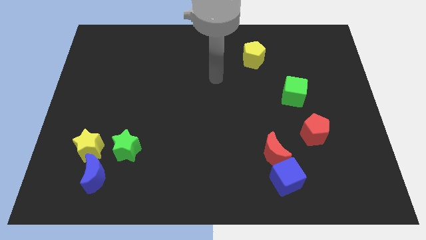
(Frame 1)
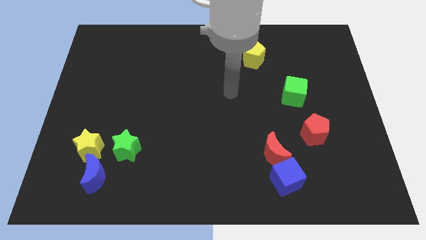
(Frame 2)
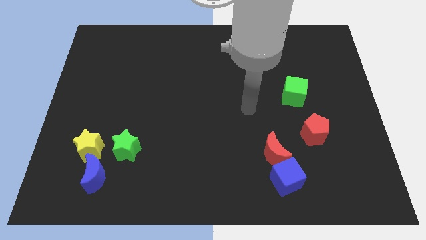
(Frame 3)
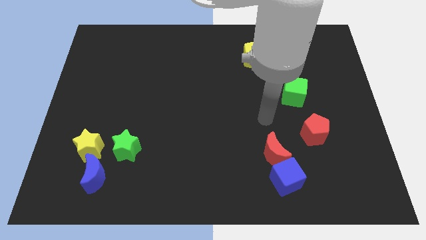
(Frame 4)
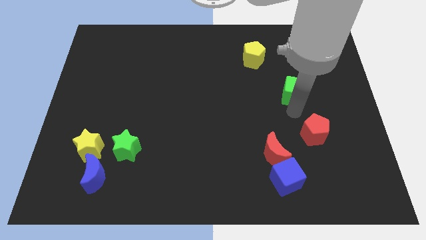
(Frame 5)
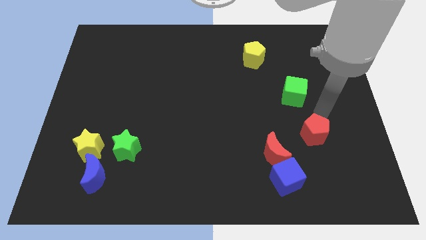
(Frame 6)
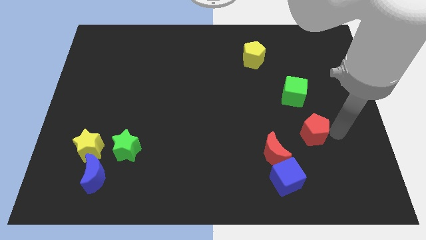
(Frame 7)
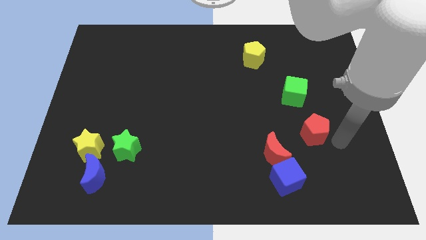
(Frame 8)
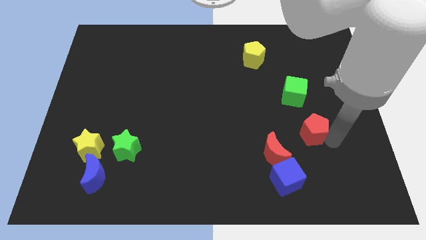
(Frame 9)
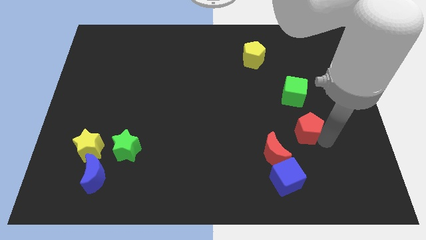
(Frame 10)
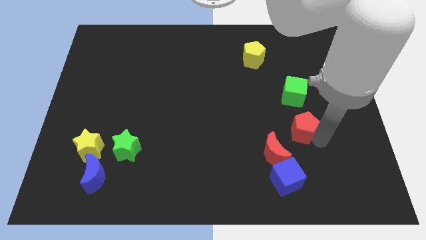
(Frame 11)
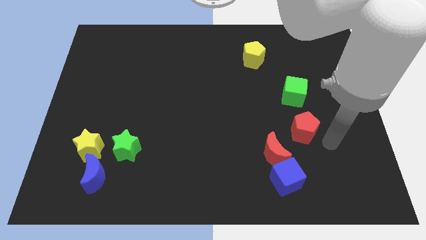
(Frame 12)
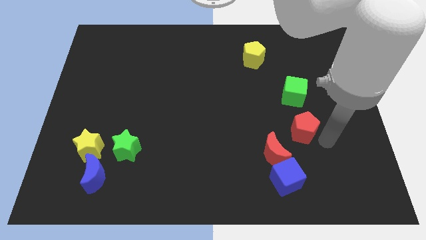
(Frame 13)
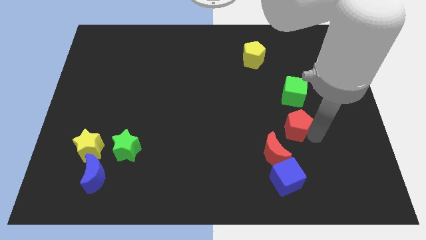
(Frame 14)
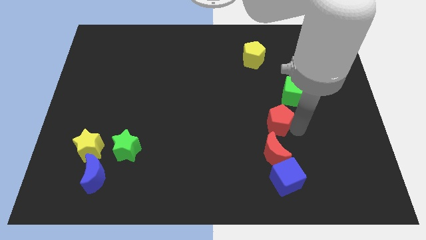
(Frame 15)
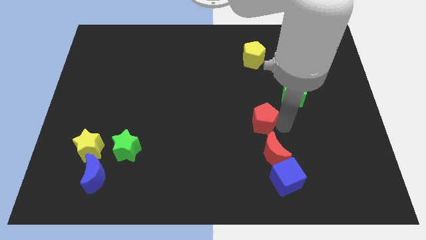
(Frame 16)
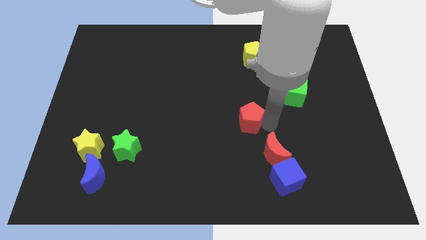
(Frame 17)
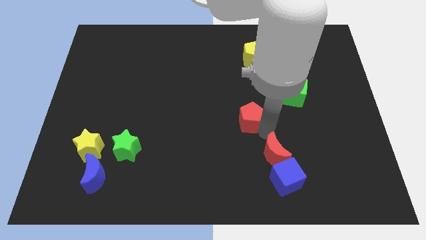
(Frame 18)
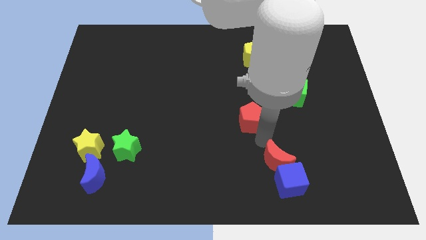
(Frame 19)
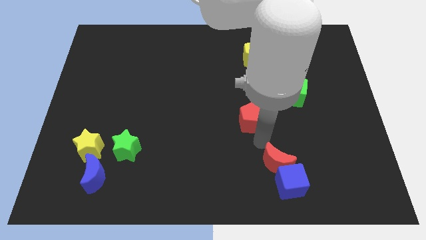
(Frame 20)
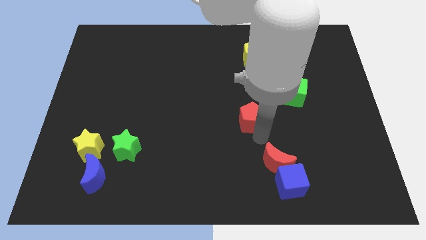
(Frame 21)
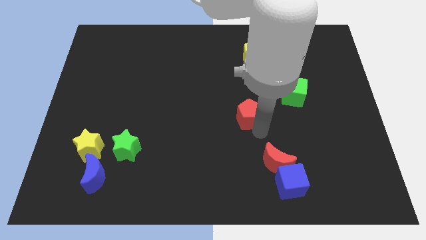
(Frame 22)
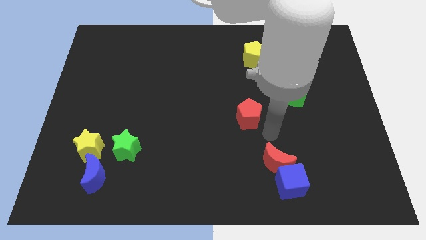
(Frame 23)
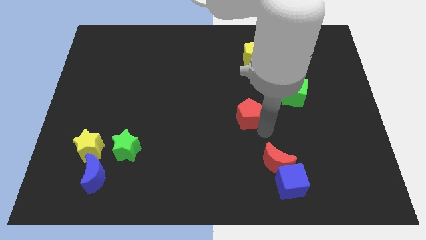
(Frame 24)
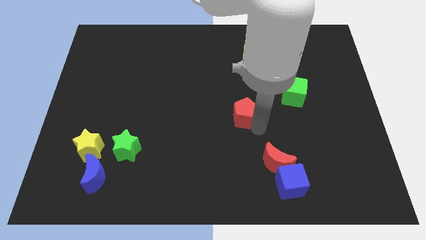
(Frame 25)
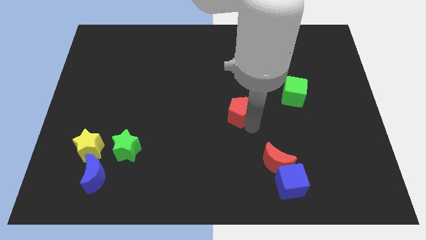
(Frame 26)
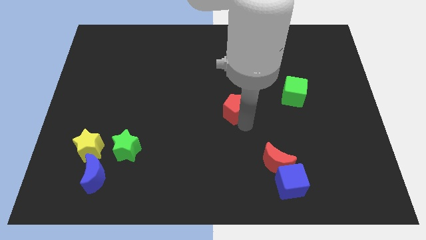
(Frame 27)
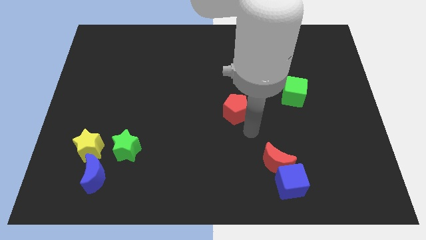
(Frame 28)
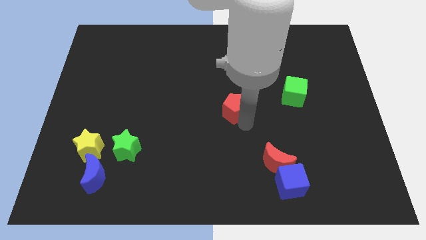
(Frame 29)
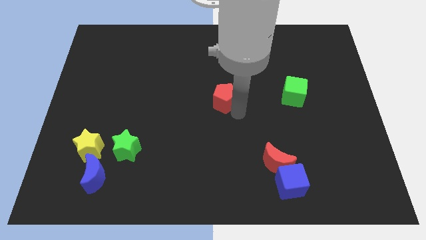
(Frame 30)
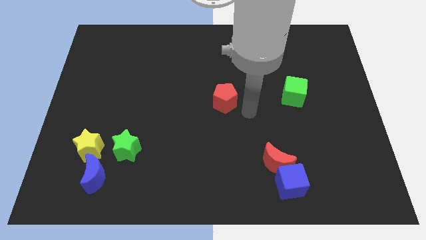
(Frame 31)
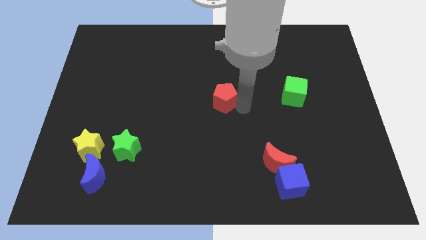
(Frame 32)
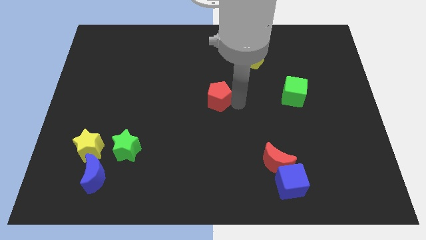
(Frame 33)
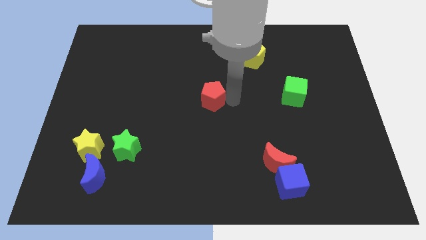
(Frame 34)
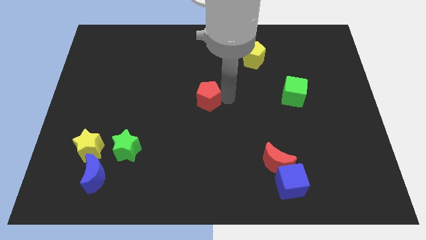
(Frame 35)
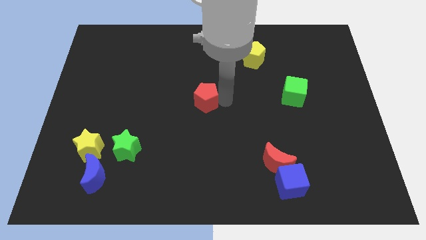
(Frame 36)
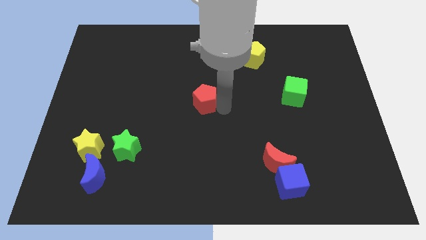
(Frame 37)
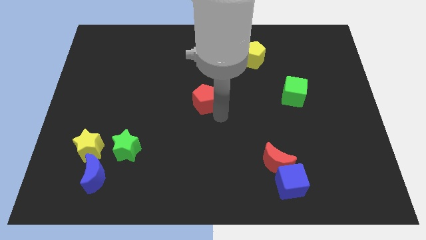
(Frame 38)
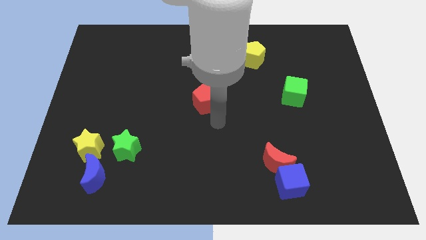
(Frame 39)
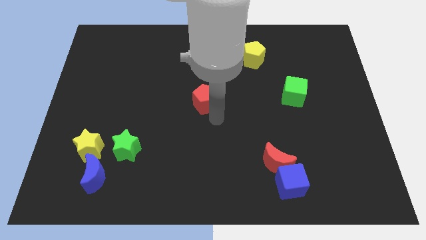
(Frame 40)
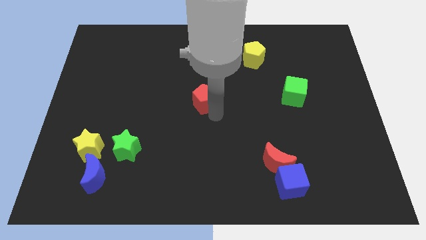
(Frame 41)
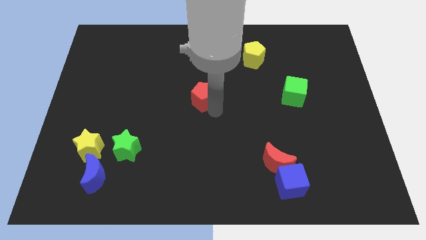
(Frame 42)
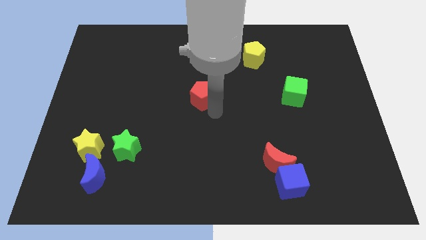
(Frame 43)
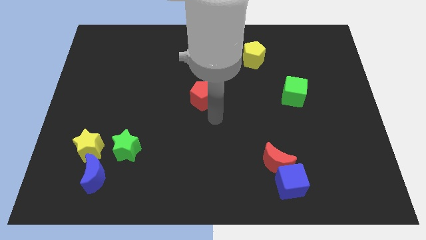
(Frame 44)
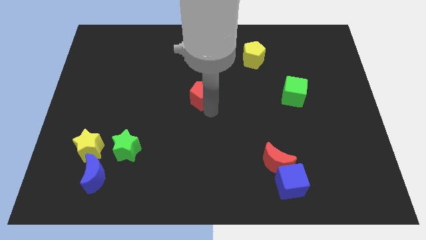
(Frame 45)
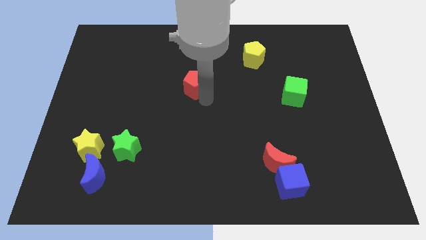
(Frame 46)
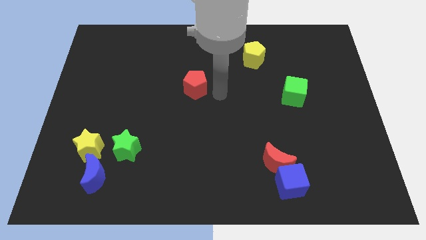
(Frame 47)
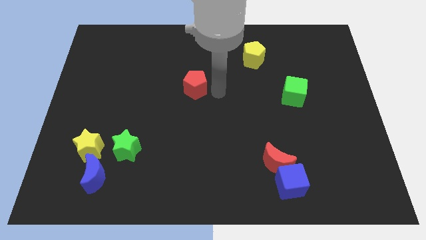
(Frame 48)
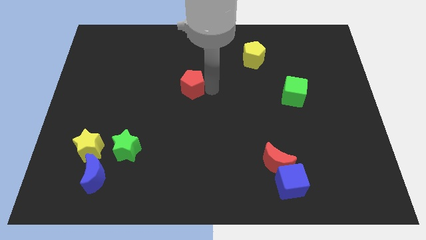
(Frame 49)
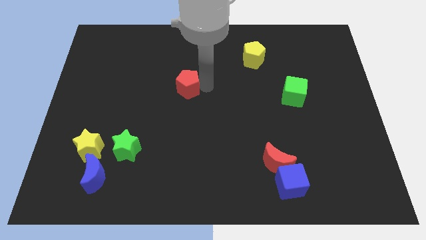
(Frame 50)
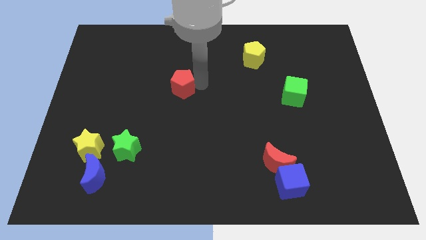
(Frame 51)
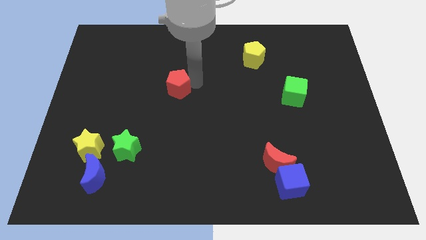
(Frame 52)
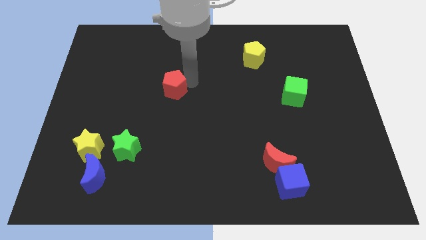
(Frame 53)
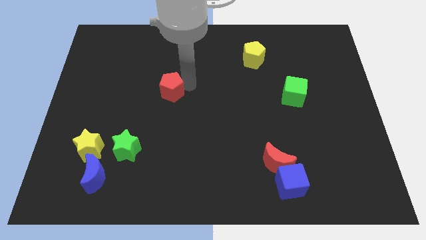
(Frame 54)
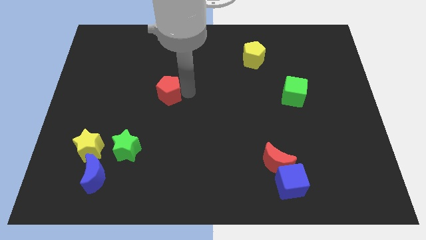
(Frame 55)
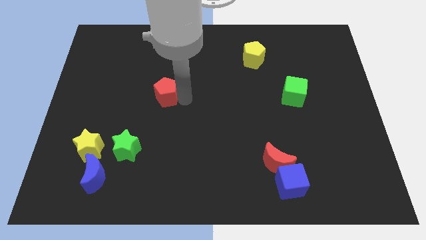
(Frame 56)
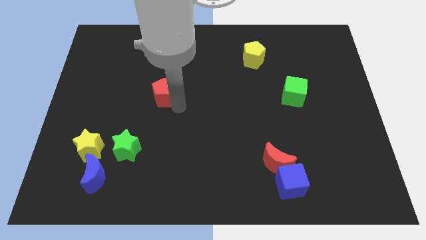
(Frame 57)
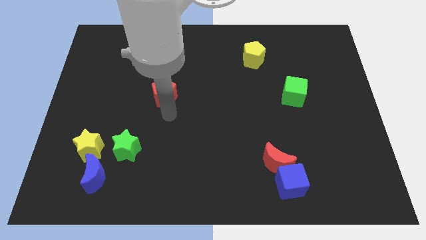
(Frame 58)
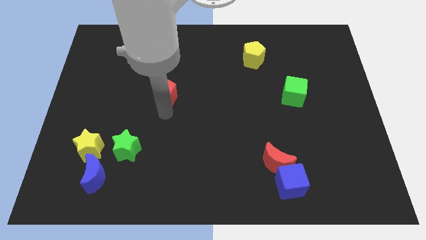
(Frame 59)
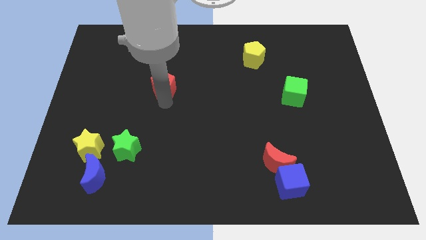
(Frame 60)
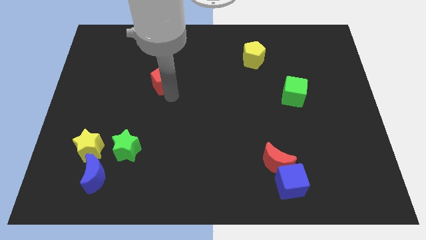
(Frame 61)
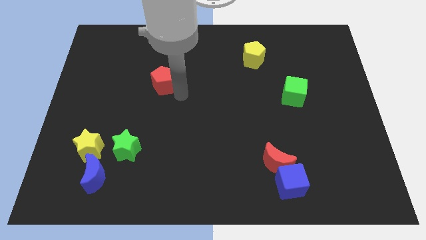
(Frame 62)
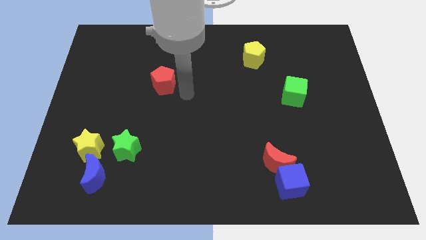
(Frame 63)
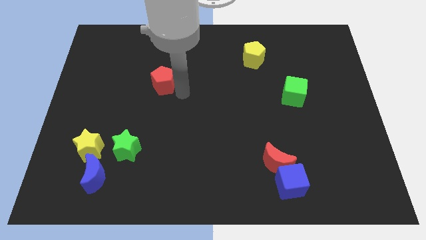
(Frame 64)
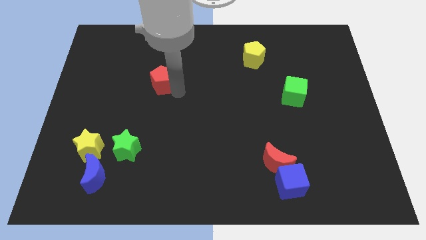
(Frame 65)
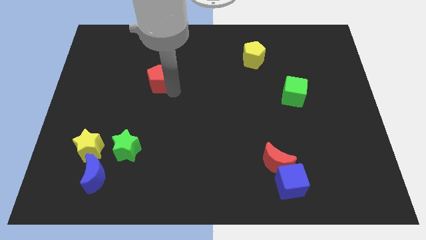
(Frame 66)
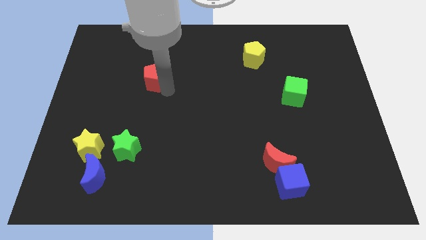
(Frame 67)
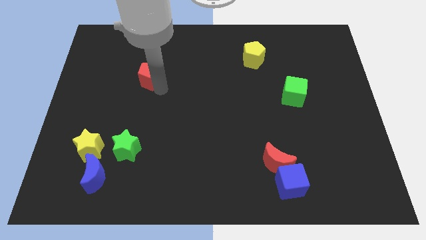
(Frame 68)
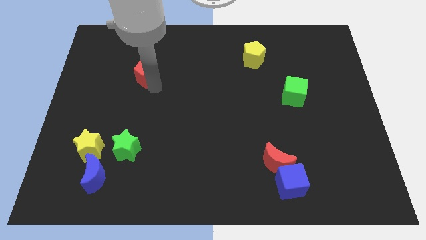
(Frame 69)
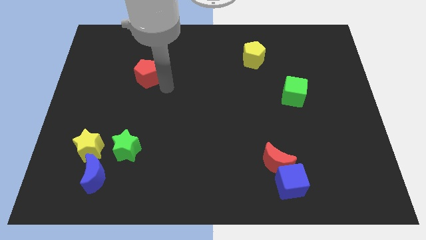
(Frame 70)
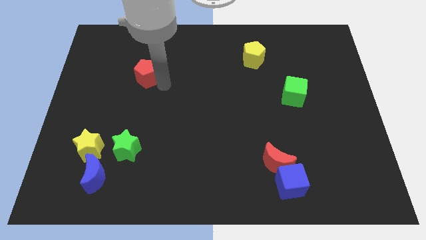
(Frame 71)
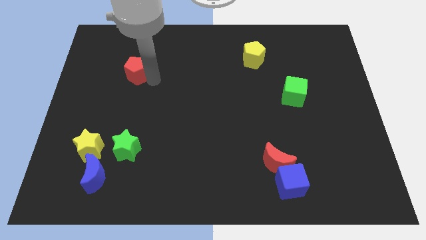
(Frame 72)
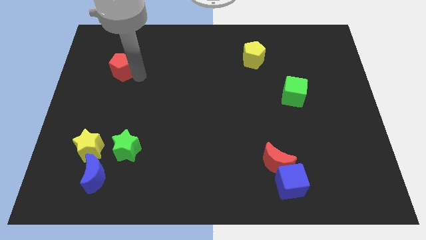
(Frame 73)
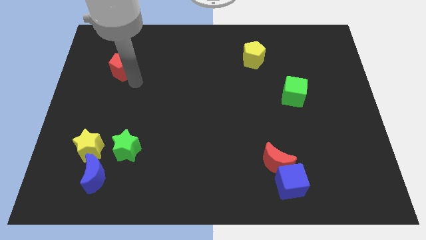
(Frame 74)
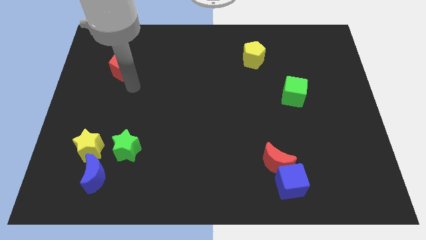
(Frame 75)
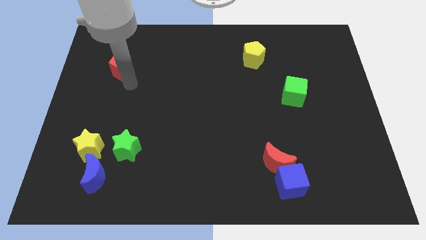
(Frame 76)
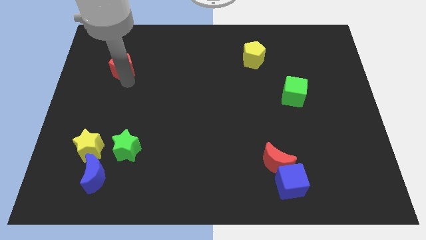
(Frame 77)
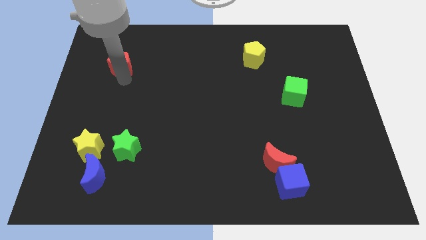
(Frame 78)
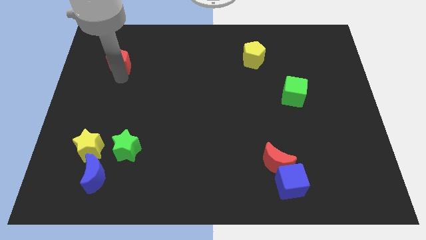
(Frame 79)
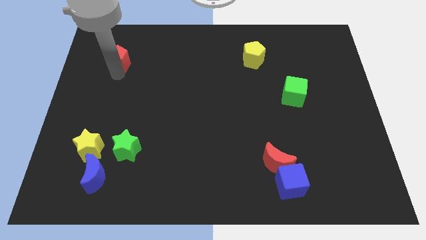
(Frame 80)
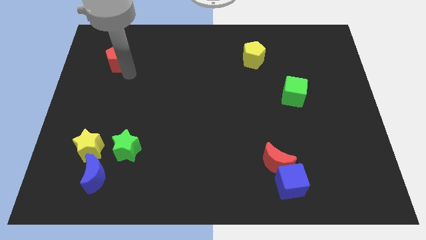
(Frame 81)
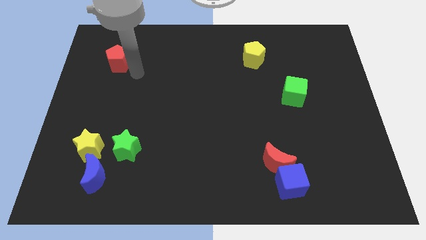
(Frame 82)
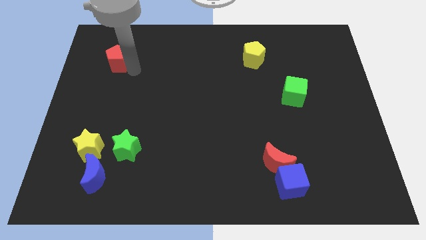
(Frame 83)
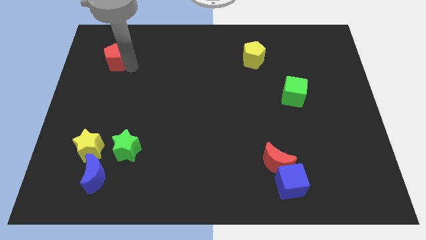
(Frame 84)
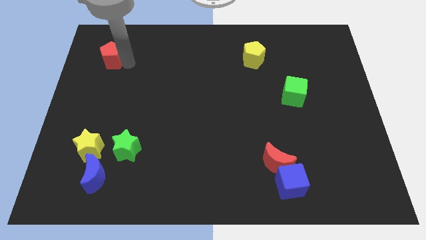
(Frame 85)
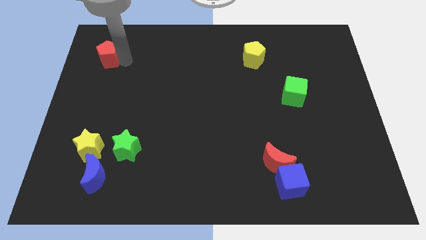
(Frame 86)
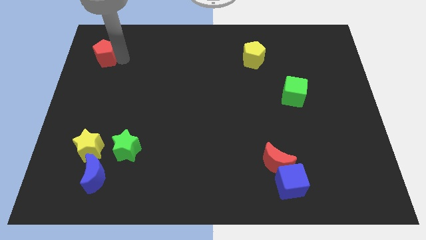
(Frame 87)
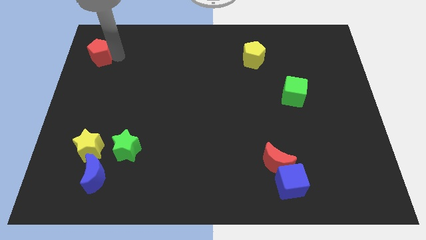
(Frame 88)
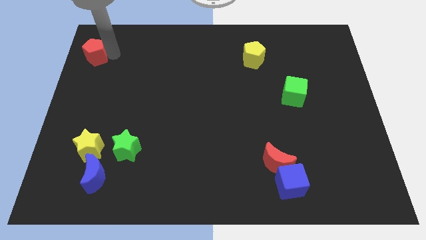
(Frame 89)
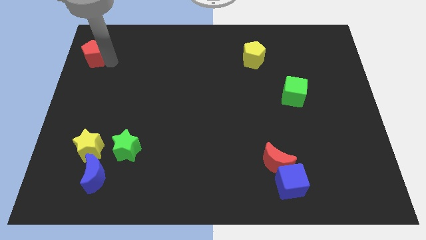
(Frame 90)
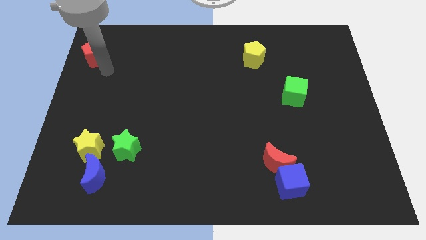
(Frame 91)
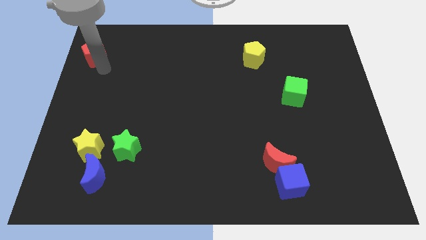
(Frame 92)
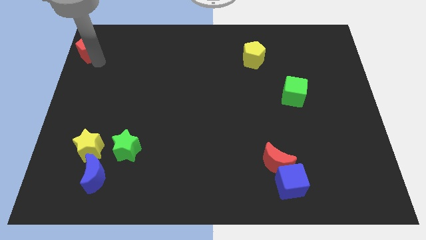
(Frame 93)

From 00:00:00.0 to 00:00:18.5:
put the red pentagon to the top left
